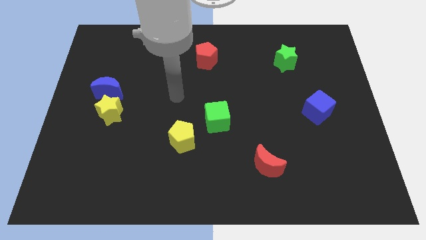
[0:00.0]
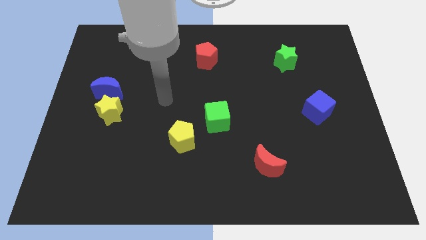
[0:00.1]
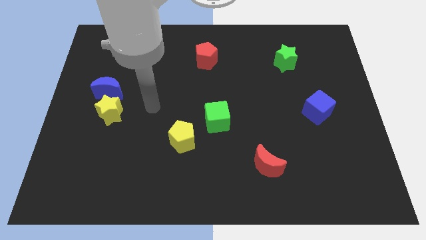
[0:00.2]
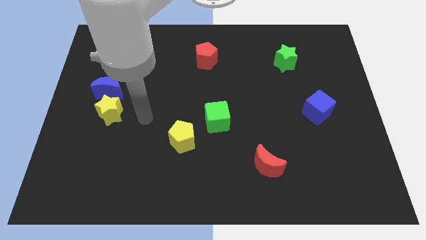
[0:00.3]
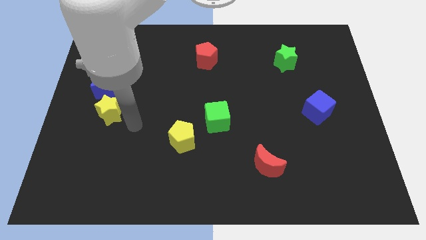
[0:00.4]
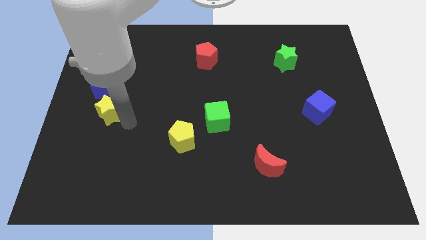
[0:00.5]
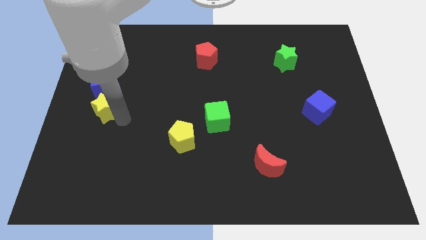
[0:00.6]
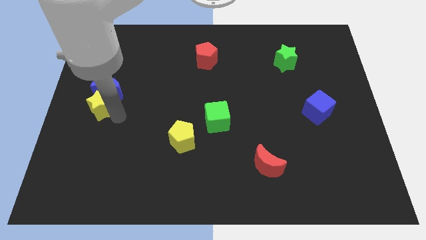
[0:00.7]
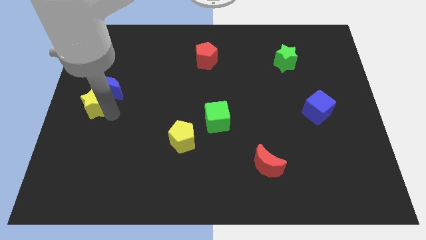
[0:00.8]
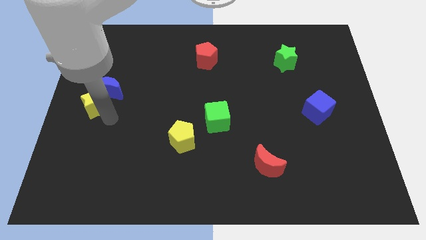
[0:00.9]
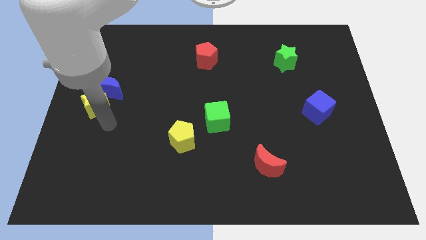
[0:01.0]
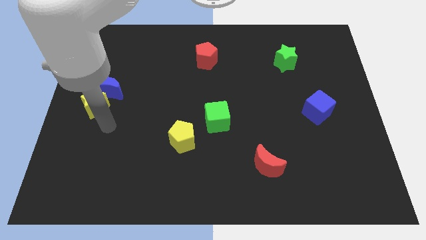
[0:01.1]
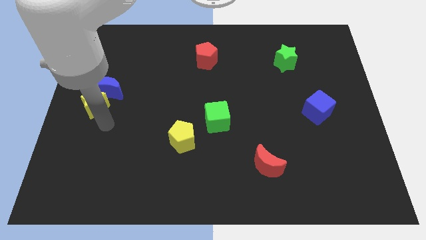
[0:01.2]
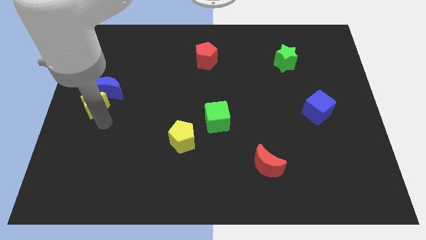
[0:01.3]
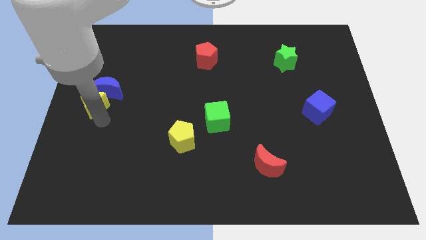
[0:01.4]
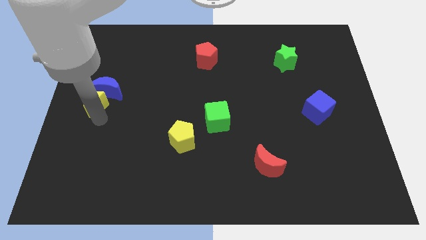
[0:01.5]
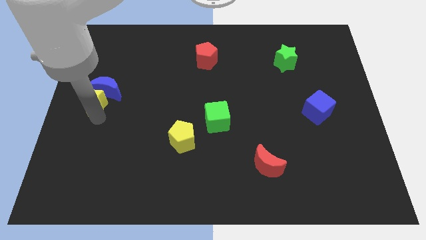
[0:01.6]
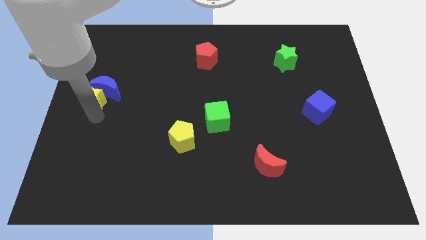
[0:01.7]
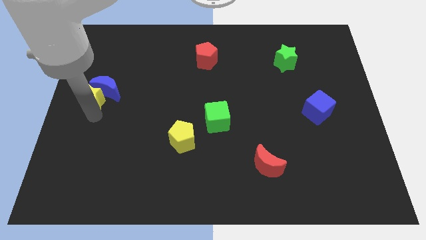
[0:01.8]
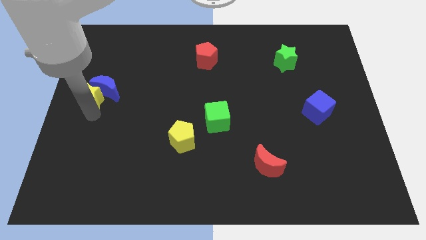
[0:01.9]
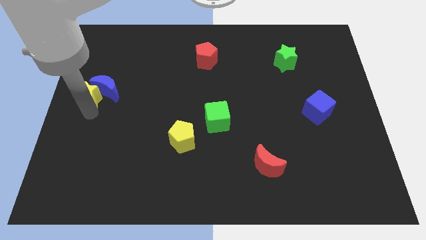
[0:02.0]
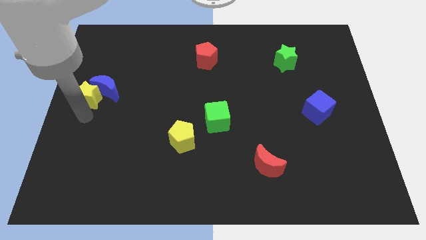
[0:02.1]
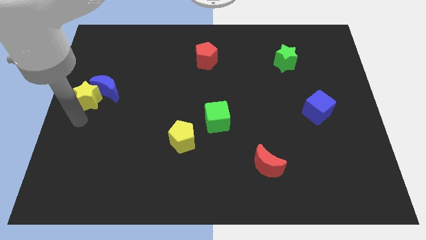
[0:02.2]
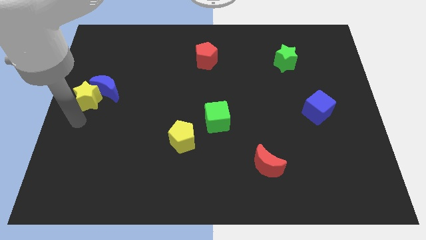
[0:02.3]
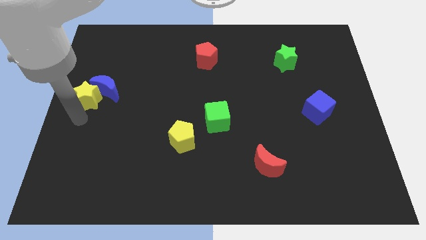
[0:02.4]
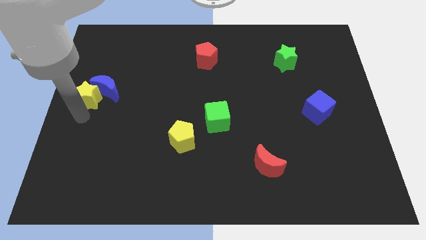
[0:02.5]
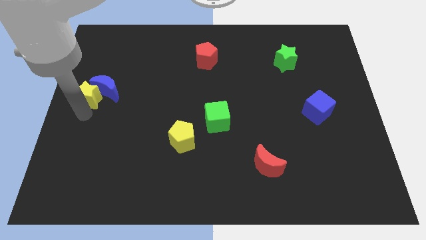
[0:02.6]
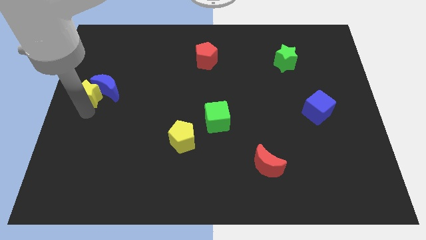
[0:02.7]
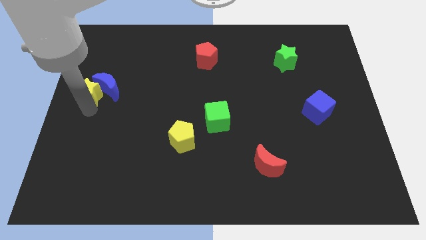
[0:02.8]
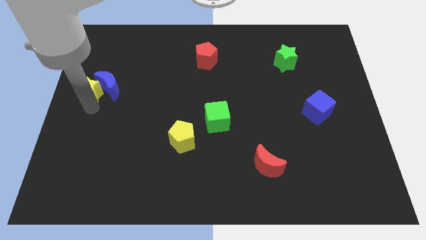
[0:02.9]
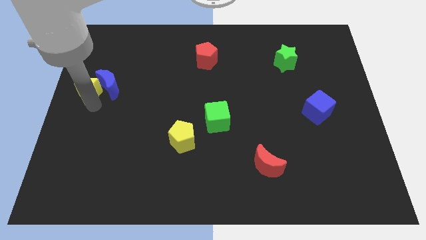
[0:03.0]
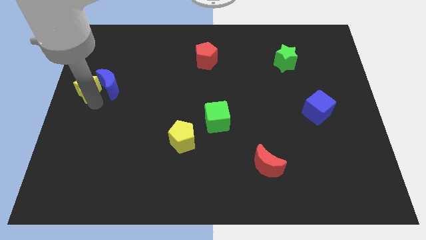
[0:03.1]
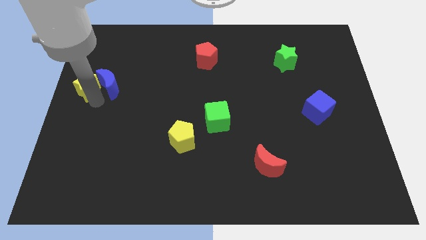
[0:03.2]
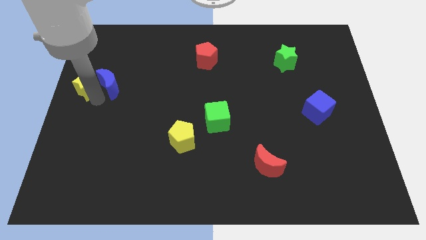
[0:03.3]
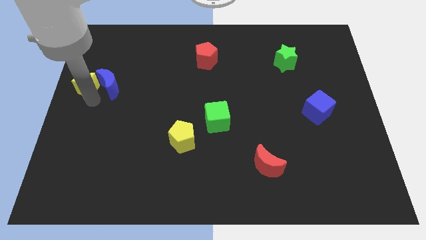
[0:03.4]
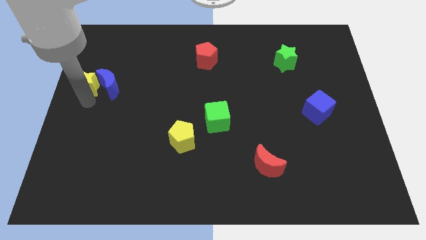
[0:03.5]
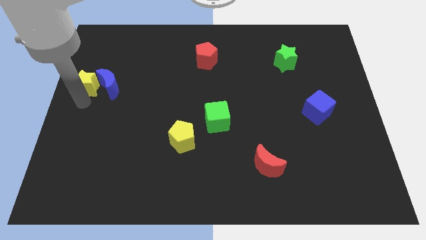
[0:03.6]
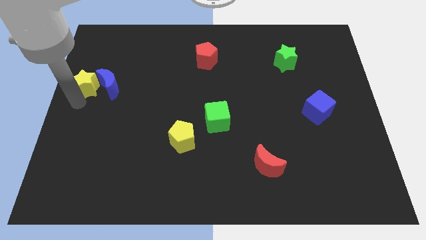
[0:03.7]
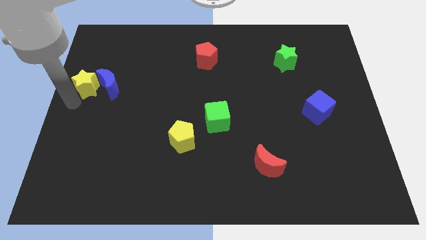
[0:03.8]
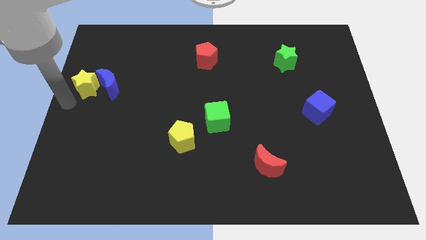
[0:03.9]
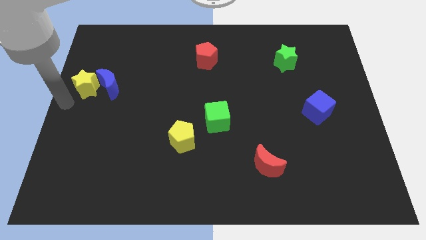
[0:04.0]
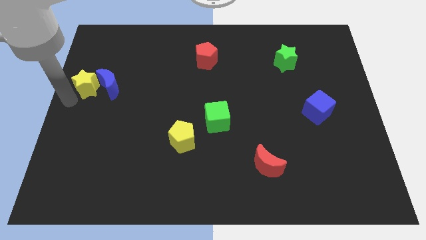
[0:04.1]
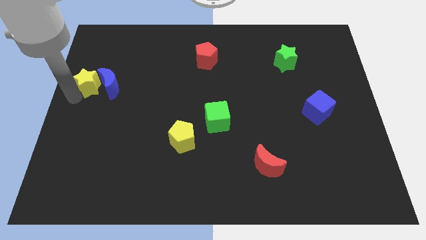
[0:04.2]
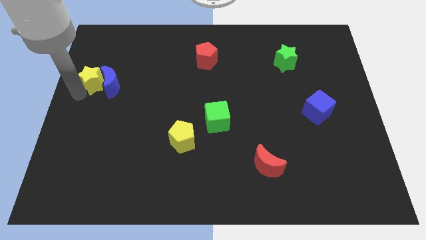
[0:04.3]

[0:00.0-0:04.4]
push the yellow star upwards slightly

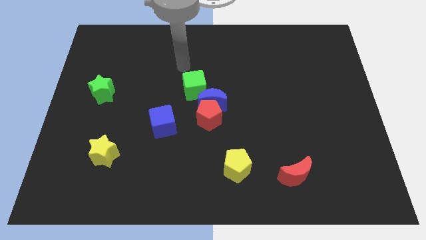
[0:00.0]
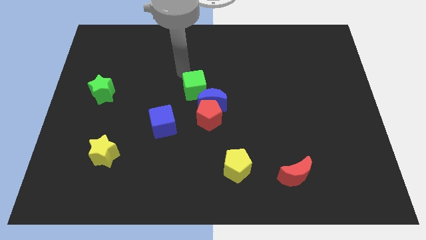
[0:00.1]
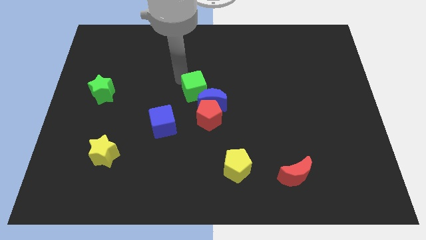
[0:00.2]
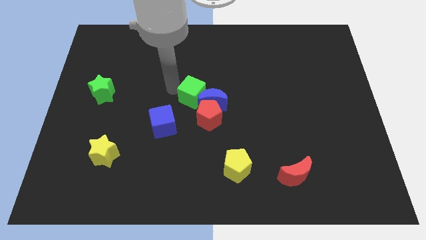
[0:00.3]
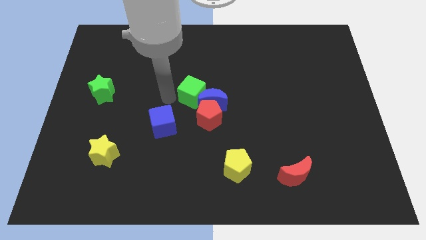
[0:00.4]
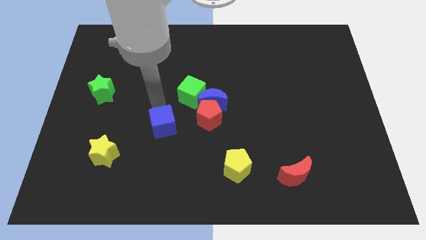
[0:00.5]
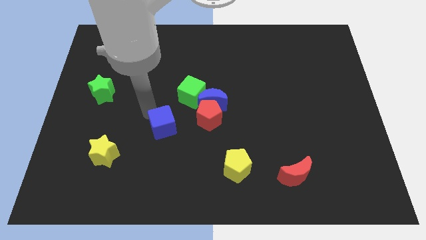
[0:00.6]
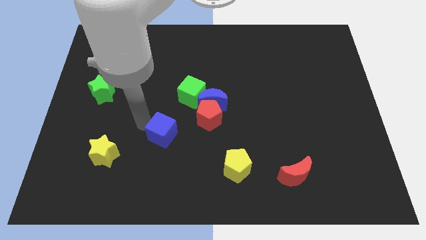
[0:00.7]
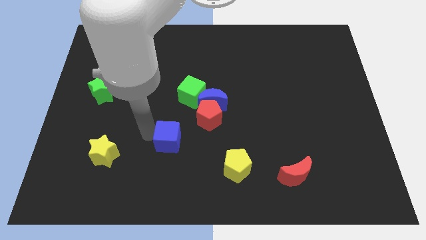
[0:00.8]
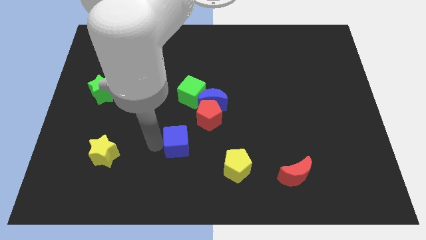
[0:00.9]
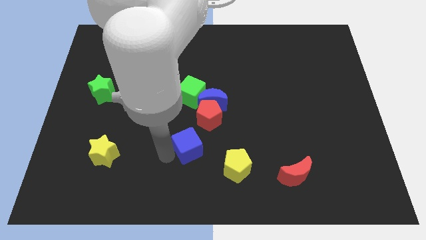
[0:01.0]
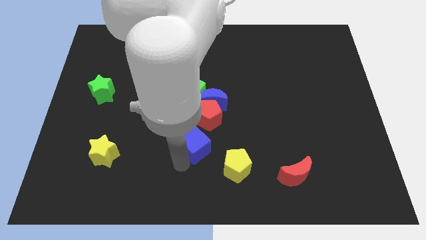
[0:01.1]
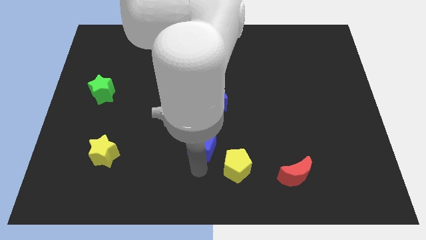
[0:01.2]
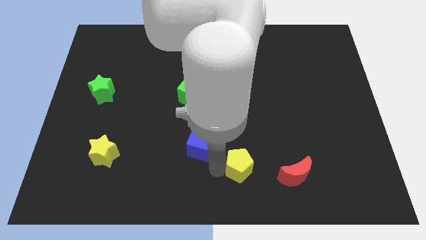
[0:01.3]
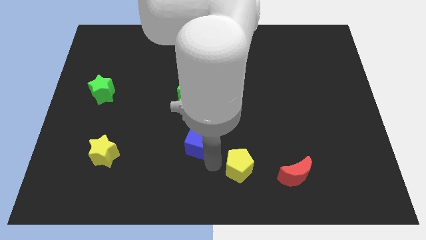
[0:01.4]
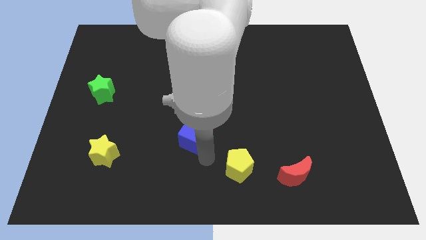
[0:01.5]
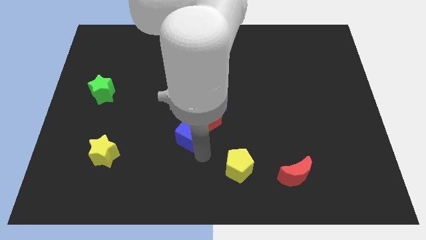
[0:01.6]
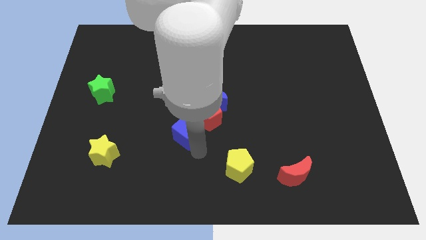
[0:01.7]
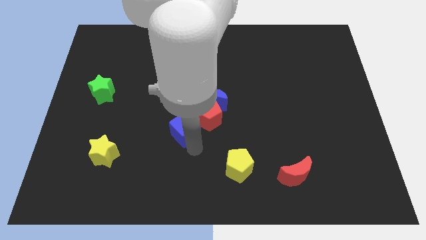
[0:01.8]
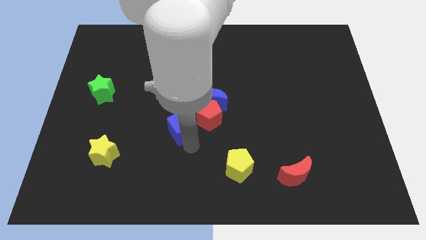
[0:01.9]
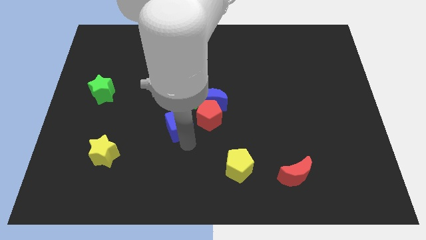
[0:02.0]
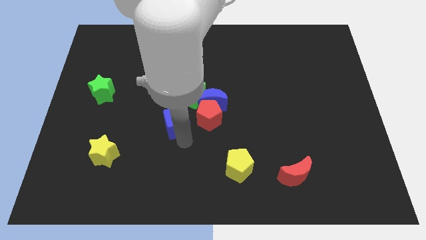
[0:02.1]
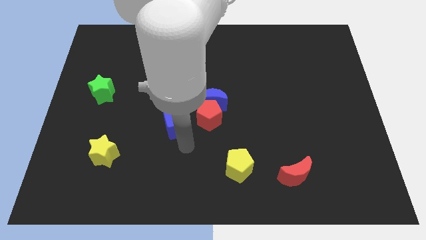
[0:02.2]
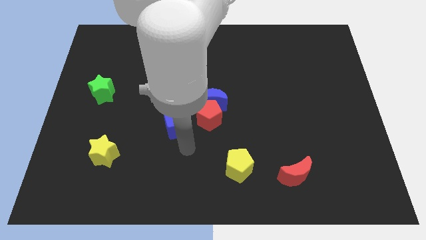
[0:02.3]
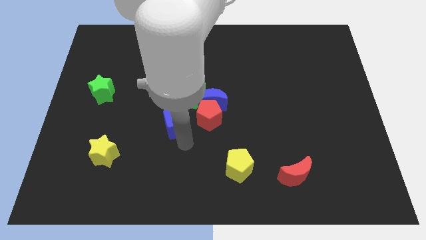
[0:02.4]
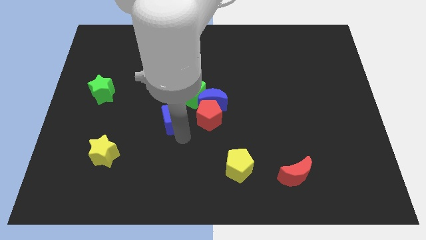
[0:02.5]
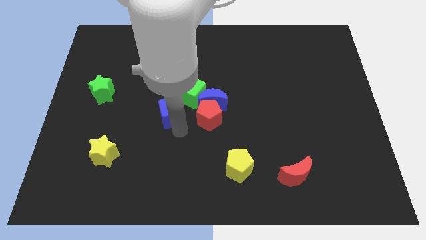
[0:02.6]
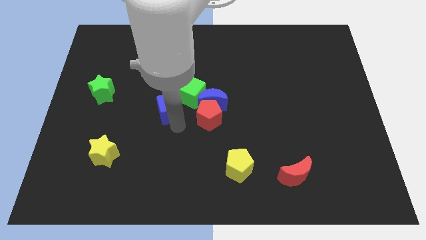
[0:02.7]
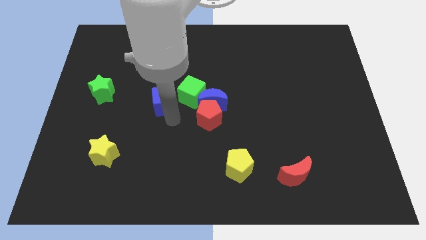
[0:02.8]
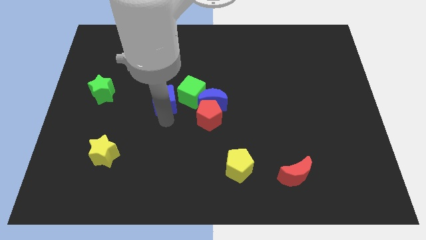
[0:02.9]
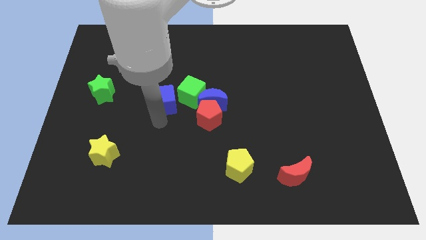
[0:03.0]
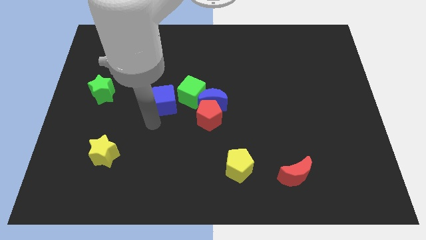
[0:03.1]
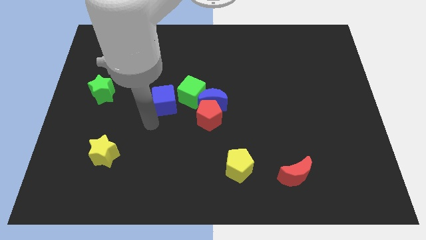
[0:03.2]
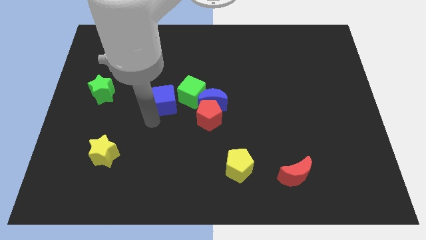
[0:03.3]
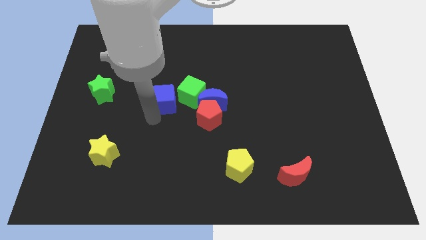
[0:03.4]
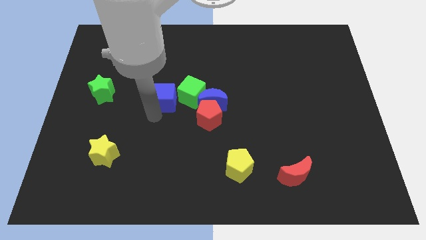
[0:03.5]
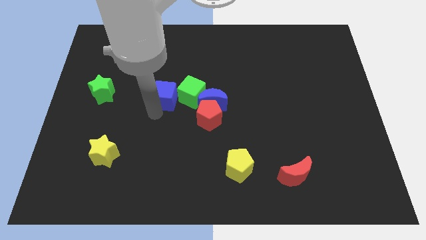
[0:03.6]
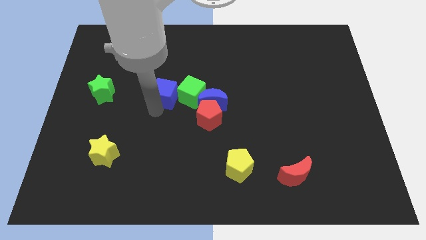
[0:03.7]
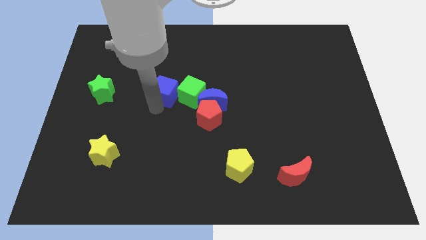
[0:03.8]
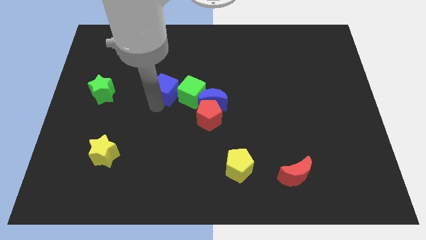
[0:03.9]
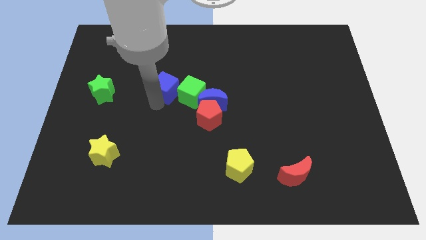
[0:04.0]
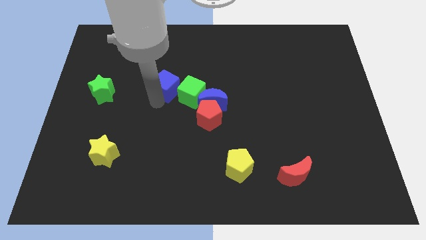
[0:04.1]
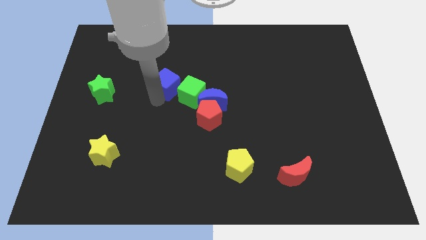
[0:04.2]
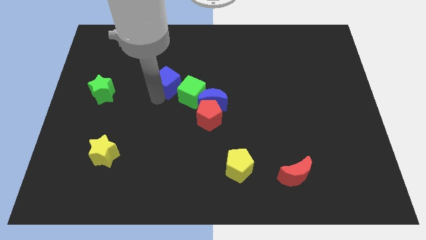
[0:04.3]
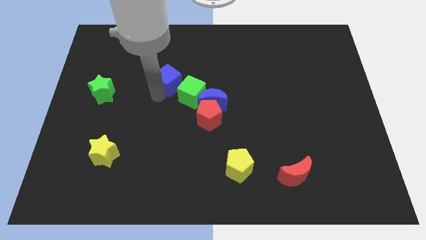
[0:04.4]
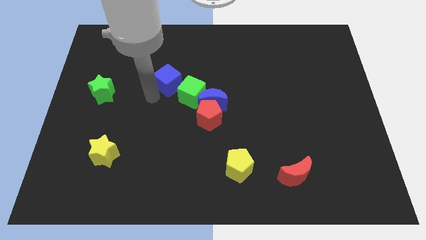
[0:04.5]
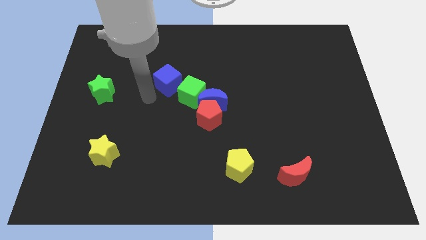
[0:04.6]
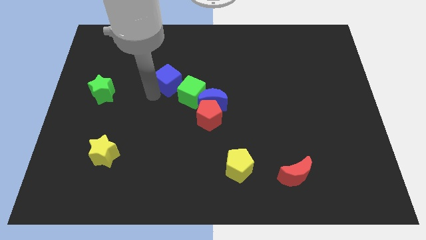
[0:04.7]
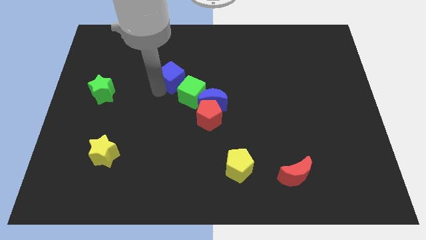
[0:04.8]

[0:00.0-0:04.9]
slightly move the blue cube upwards and then to the right
